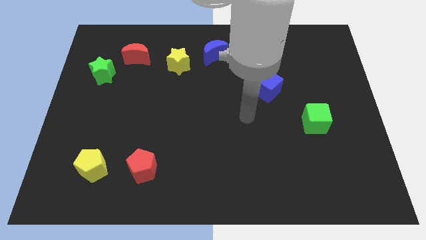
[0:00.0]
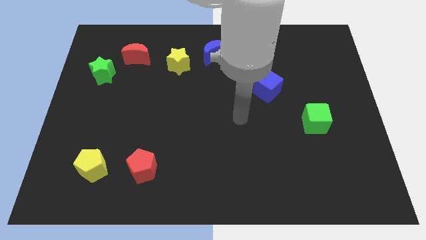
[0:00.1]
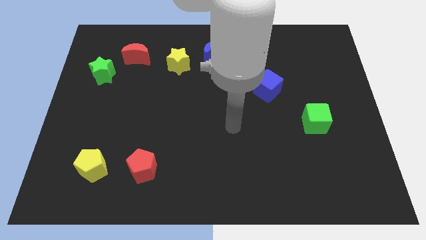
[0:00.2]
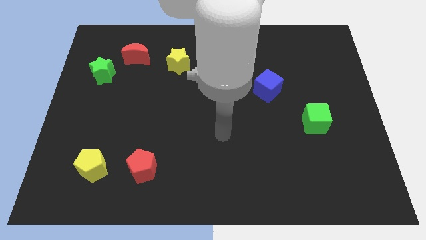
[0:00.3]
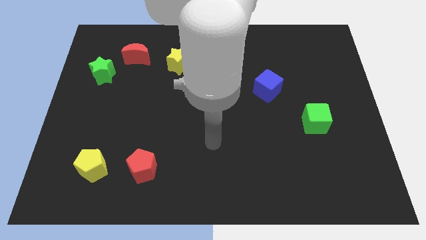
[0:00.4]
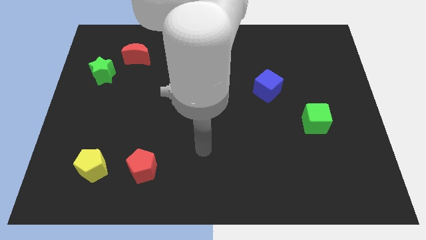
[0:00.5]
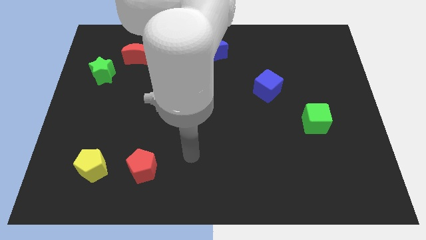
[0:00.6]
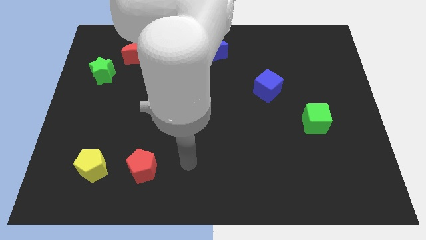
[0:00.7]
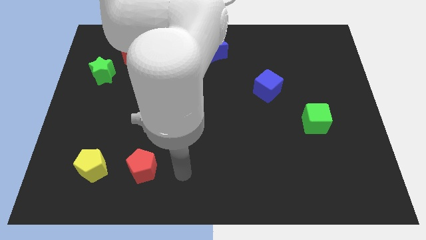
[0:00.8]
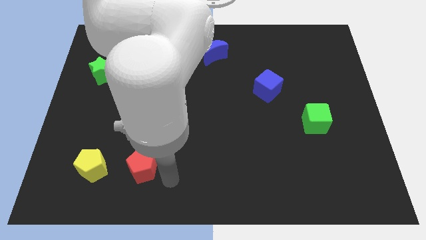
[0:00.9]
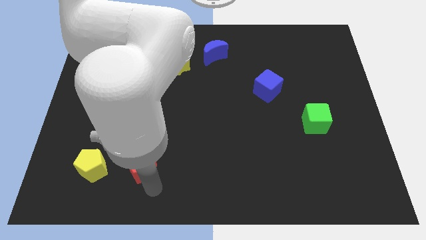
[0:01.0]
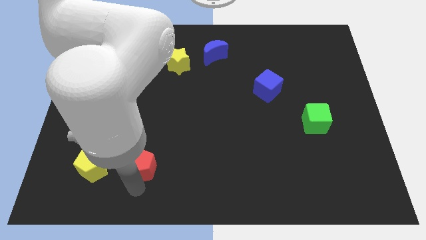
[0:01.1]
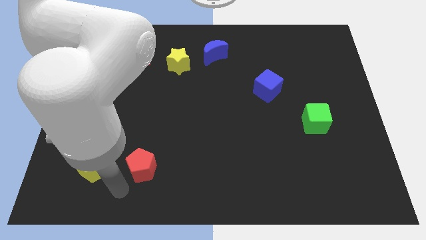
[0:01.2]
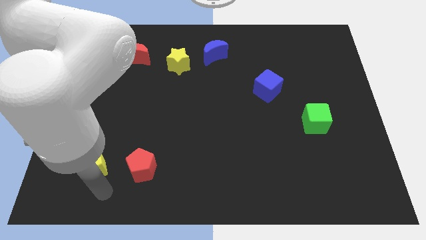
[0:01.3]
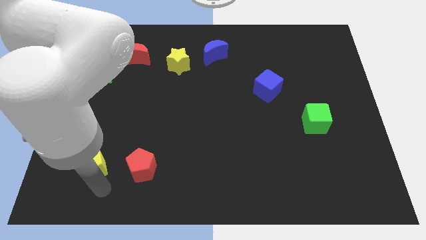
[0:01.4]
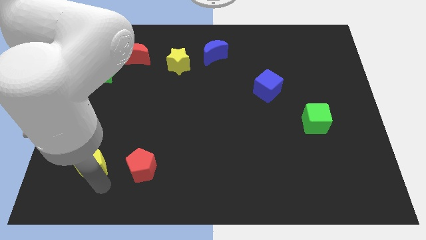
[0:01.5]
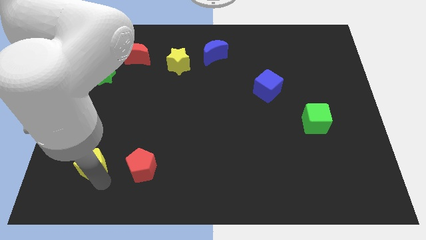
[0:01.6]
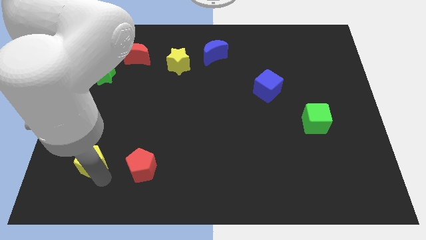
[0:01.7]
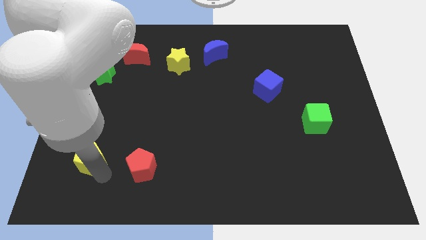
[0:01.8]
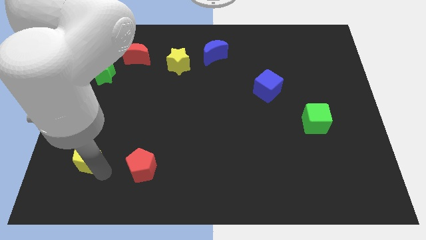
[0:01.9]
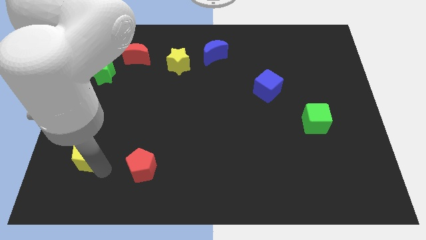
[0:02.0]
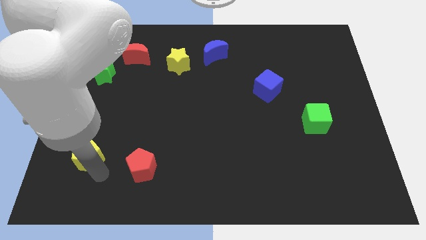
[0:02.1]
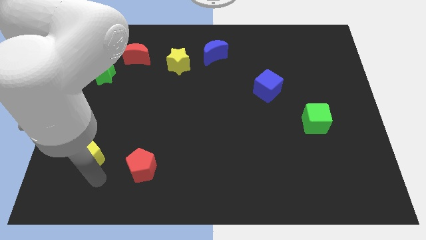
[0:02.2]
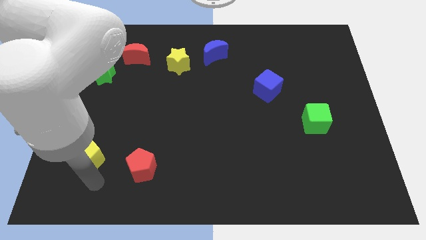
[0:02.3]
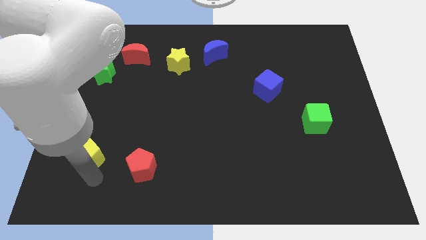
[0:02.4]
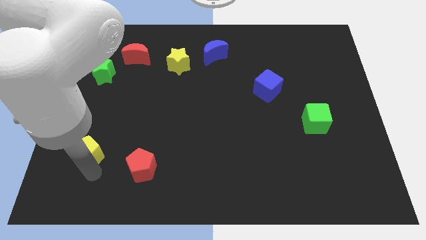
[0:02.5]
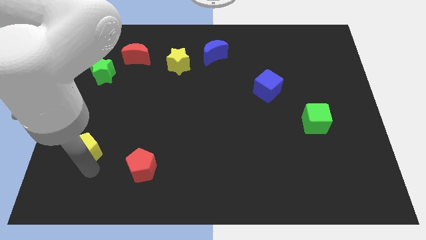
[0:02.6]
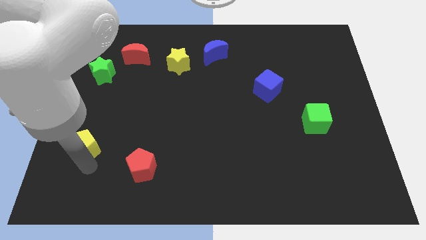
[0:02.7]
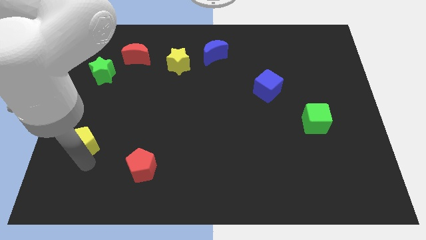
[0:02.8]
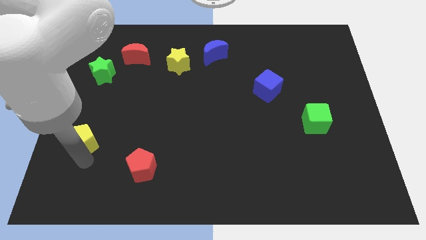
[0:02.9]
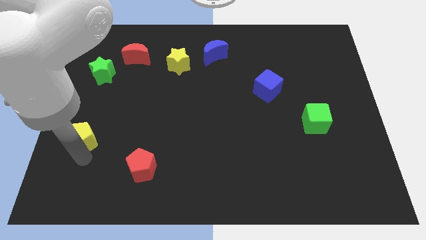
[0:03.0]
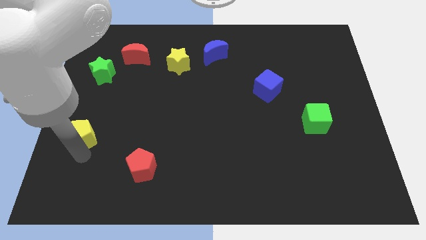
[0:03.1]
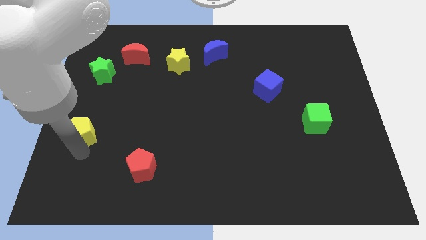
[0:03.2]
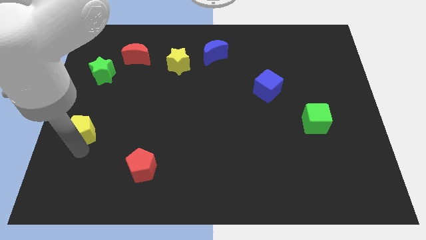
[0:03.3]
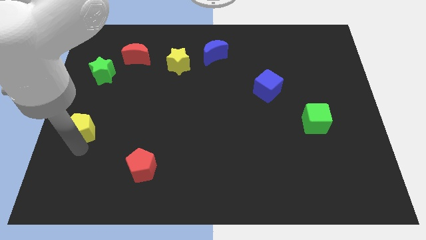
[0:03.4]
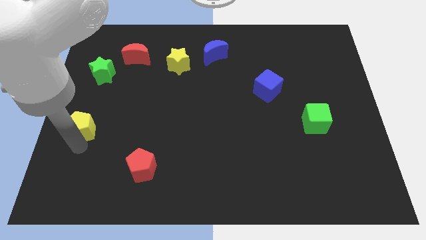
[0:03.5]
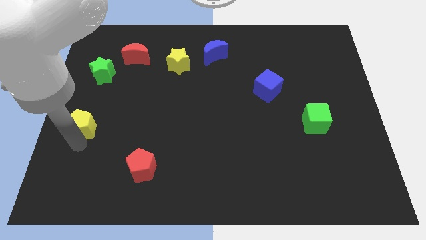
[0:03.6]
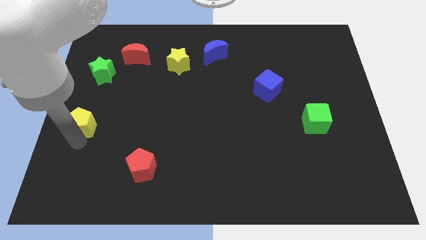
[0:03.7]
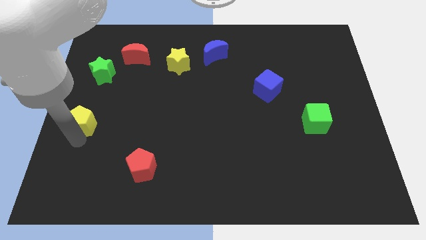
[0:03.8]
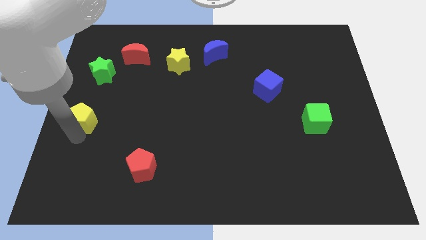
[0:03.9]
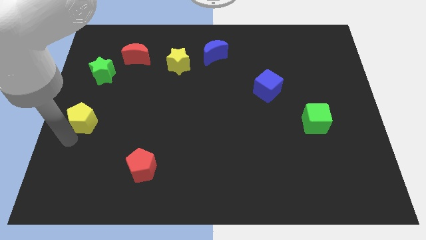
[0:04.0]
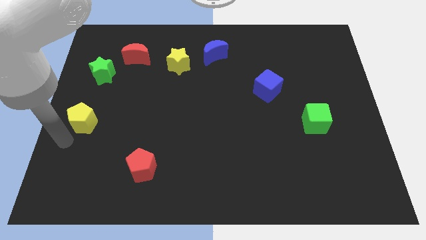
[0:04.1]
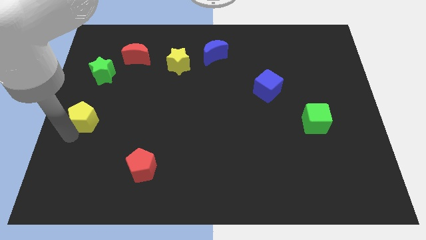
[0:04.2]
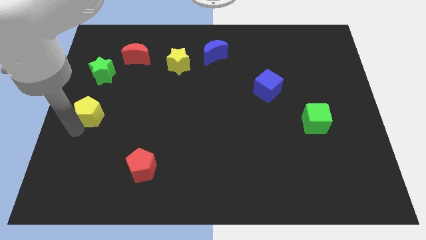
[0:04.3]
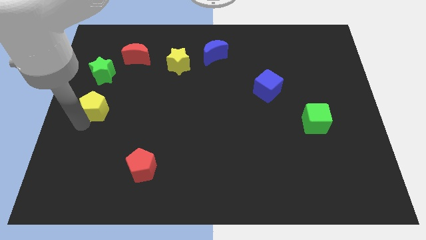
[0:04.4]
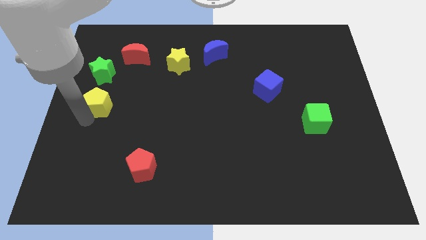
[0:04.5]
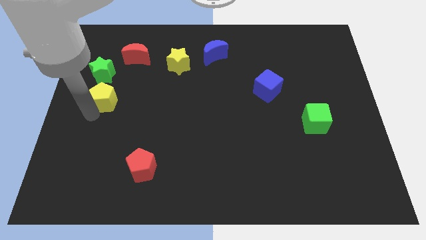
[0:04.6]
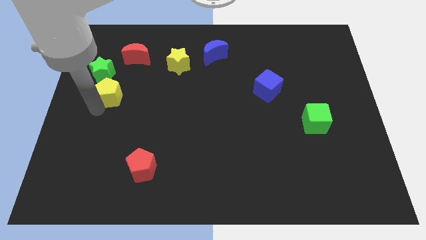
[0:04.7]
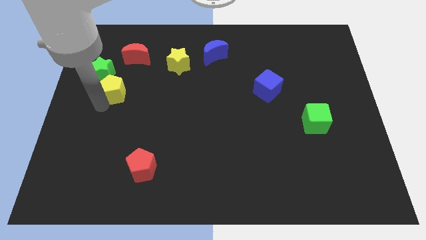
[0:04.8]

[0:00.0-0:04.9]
slide the yellow pentagon up

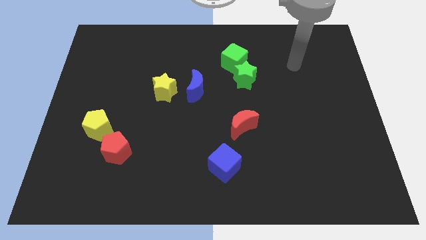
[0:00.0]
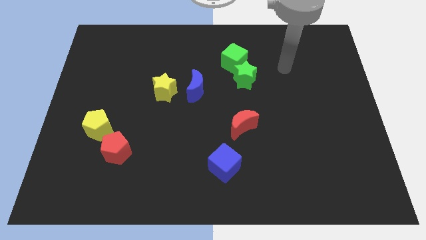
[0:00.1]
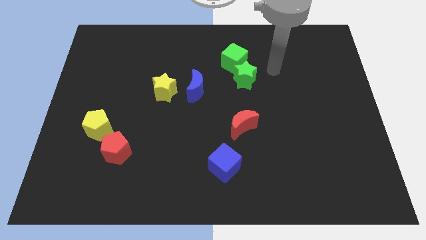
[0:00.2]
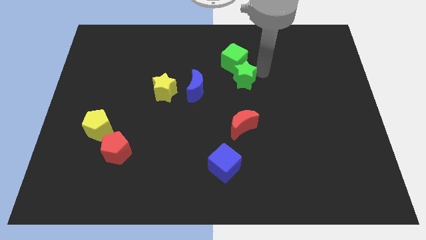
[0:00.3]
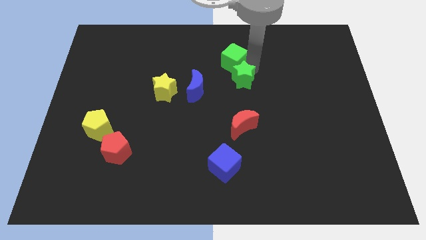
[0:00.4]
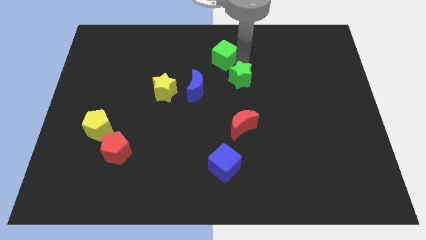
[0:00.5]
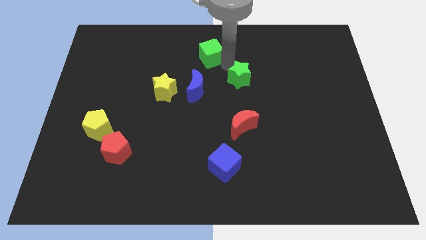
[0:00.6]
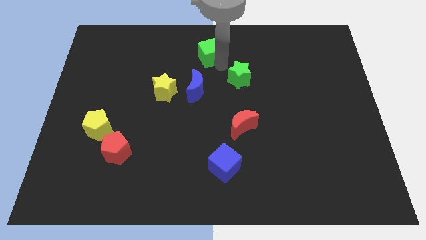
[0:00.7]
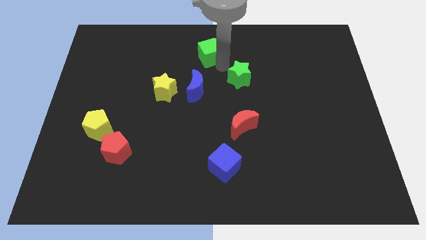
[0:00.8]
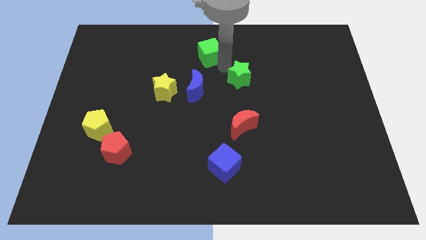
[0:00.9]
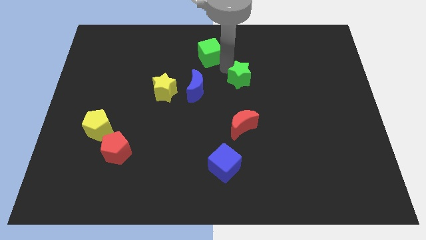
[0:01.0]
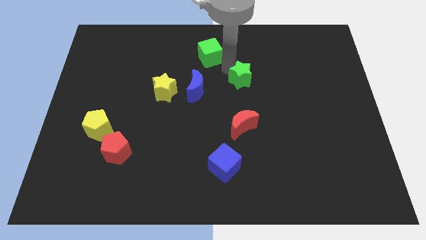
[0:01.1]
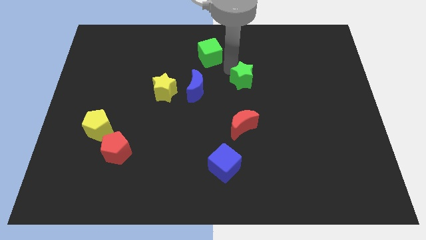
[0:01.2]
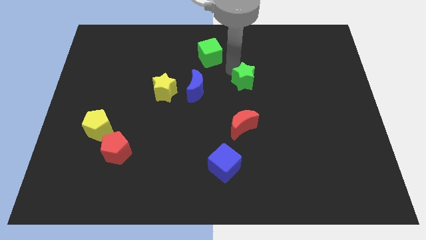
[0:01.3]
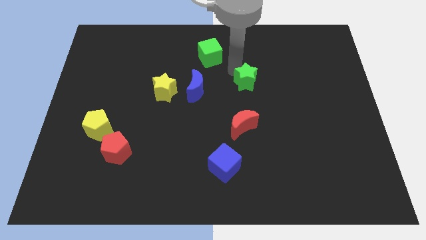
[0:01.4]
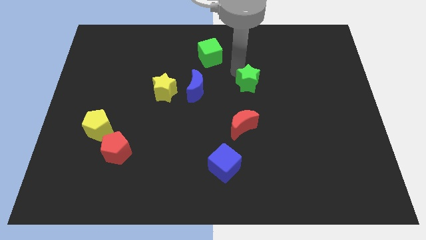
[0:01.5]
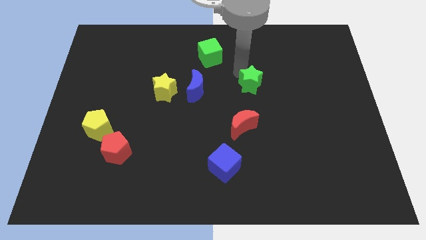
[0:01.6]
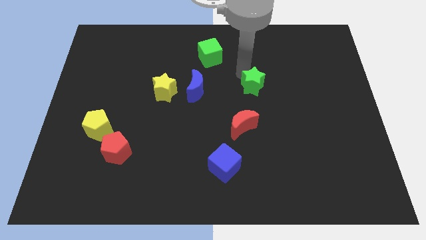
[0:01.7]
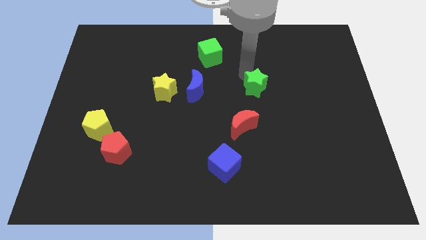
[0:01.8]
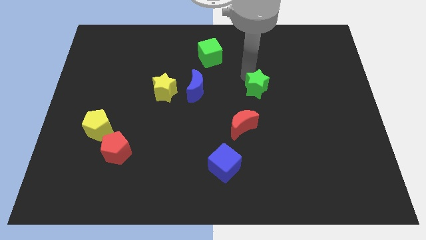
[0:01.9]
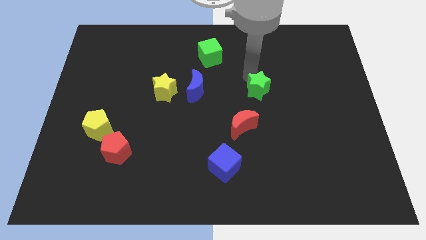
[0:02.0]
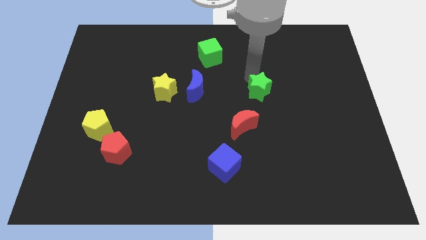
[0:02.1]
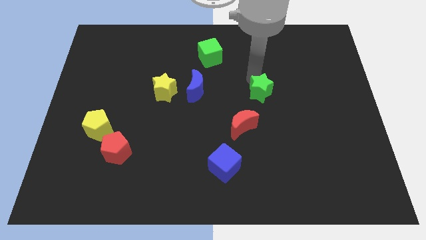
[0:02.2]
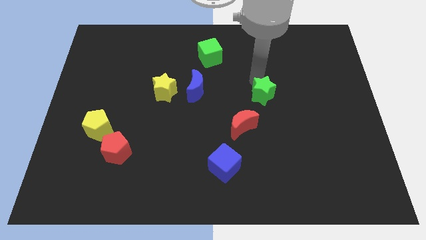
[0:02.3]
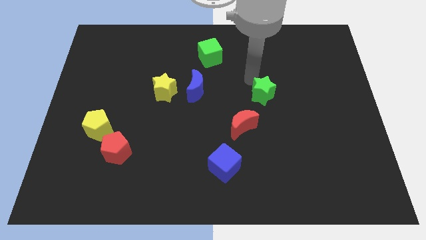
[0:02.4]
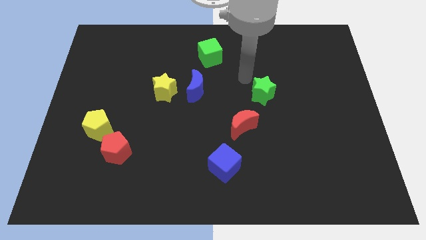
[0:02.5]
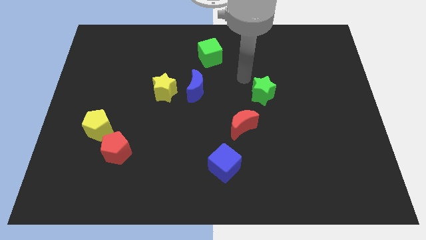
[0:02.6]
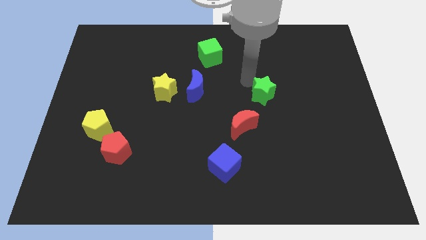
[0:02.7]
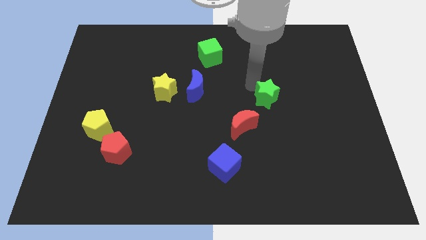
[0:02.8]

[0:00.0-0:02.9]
push the green star somewhat downwards and to the right diagonally

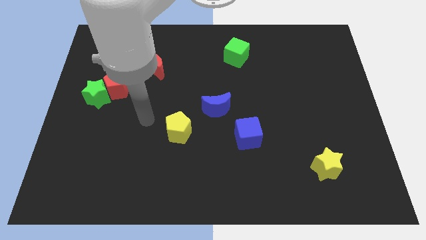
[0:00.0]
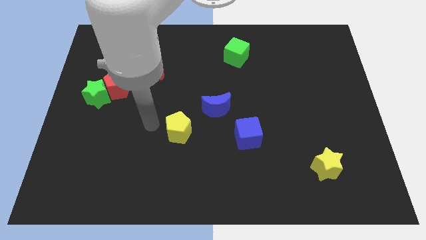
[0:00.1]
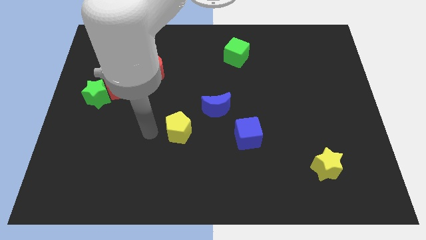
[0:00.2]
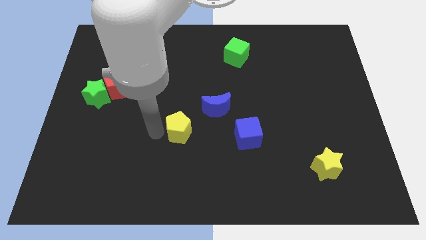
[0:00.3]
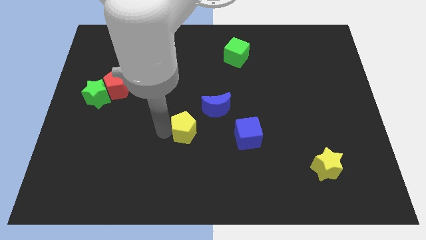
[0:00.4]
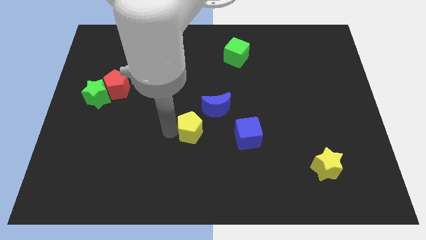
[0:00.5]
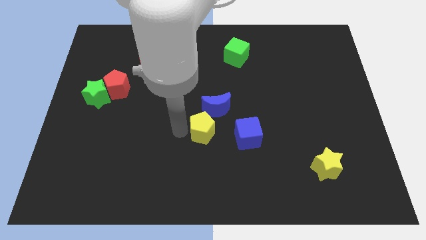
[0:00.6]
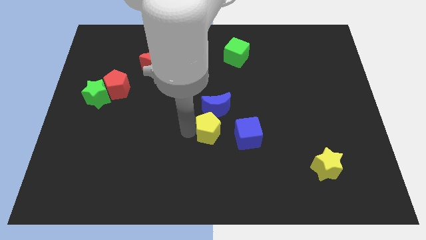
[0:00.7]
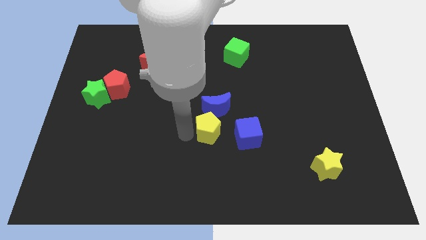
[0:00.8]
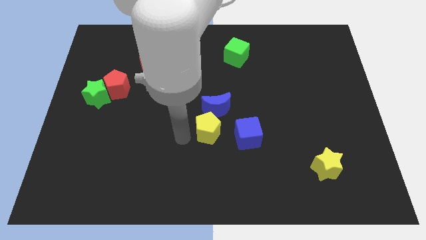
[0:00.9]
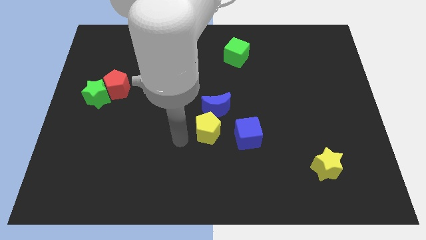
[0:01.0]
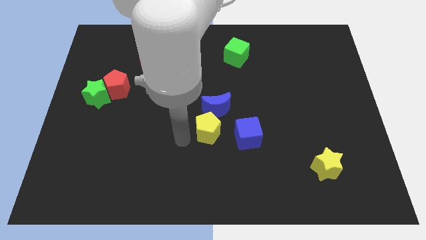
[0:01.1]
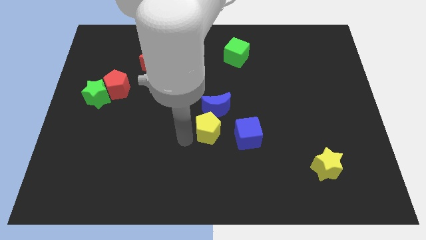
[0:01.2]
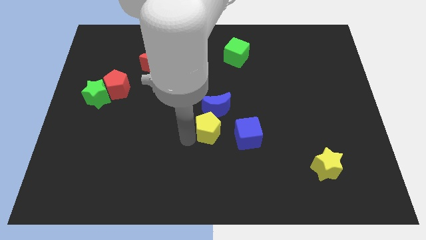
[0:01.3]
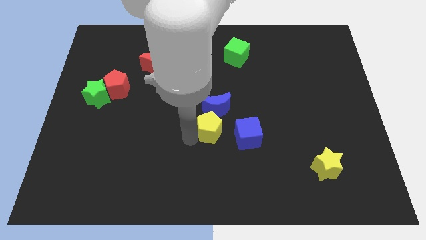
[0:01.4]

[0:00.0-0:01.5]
slightly move the yellow pentagon right
